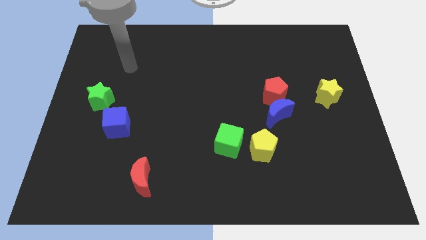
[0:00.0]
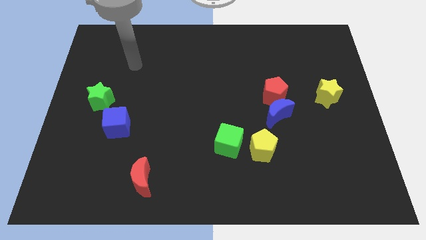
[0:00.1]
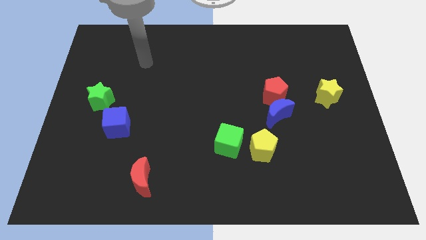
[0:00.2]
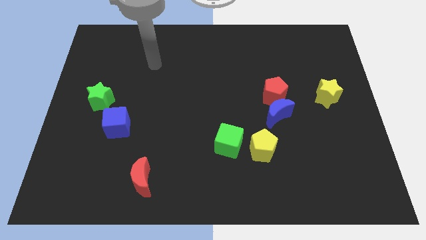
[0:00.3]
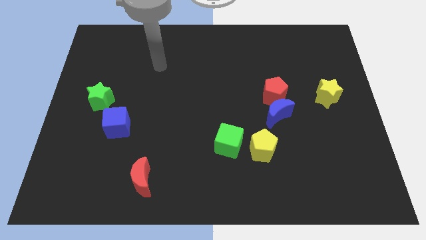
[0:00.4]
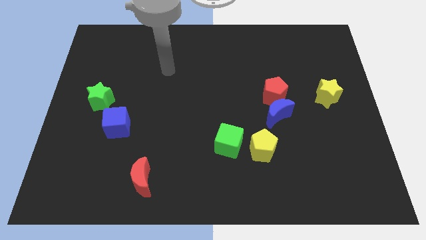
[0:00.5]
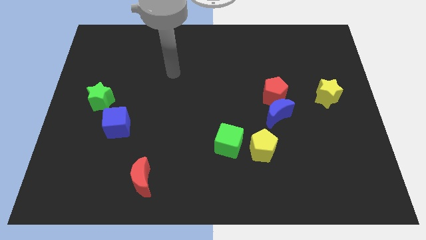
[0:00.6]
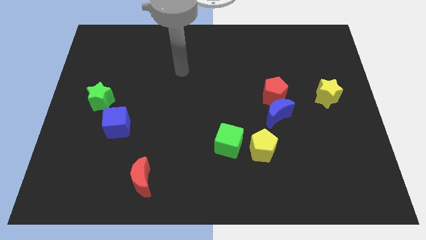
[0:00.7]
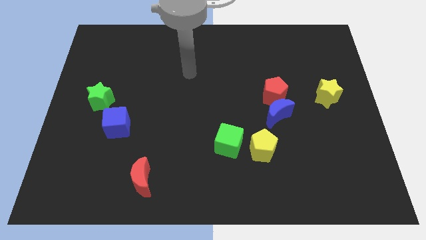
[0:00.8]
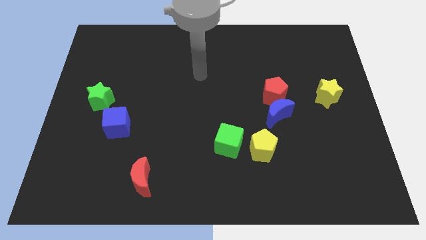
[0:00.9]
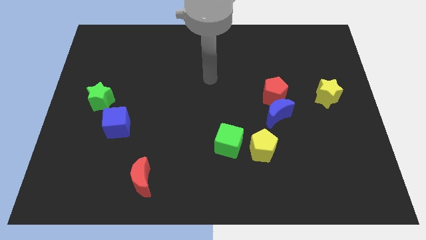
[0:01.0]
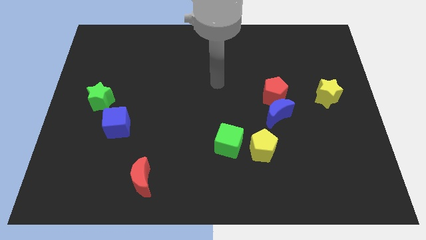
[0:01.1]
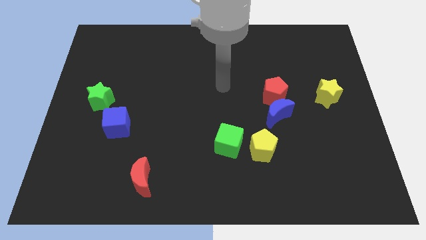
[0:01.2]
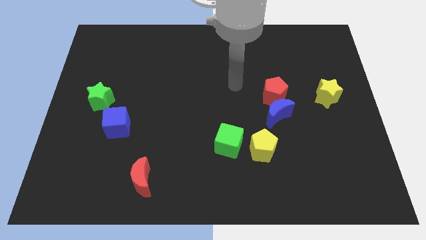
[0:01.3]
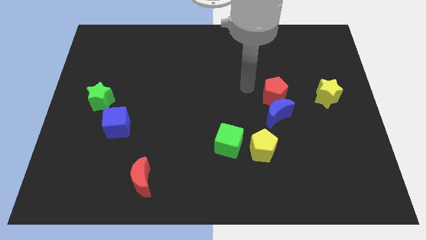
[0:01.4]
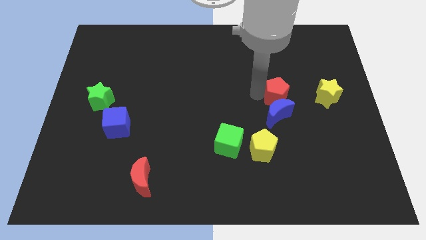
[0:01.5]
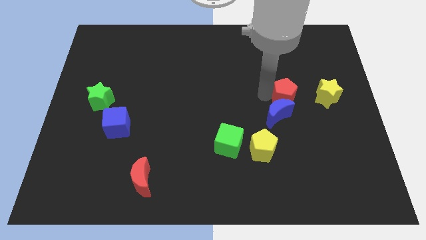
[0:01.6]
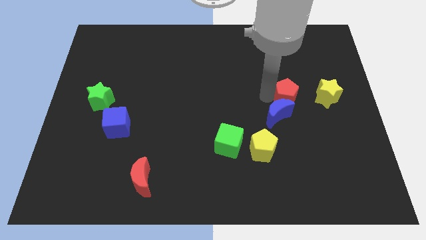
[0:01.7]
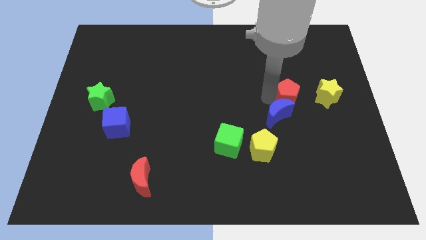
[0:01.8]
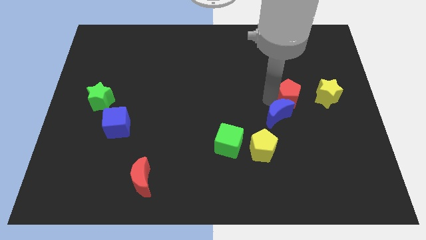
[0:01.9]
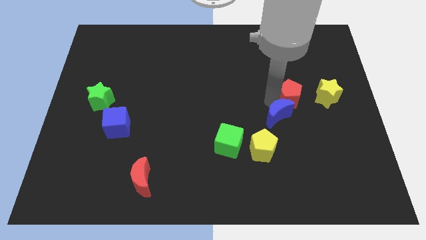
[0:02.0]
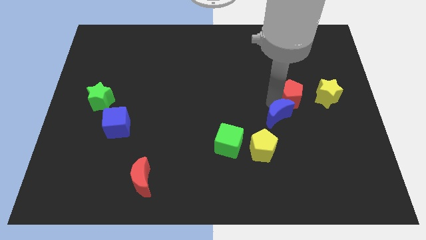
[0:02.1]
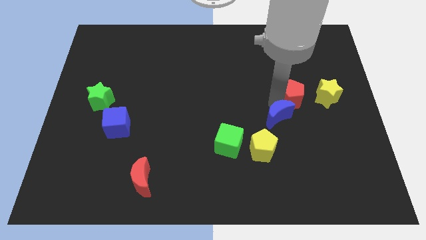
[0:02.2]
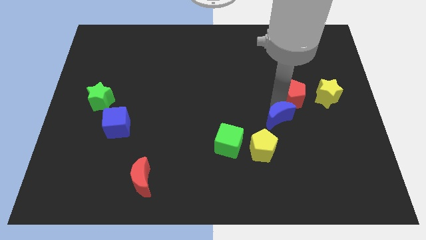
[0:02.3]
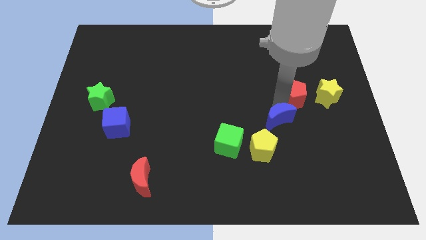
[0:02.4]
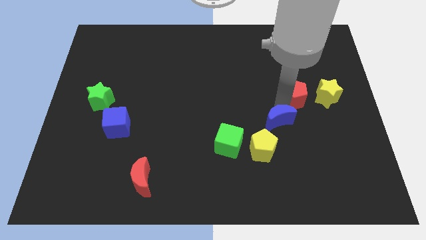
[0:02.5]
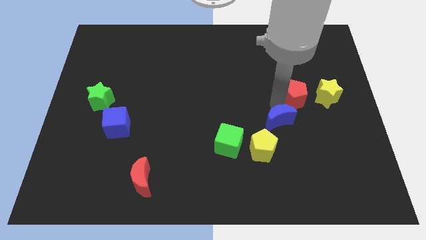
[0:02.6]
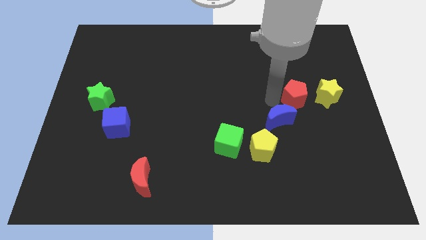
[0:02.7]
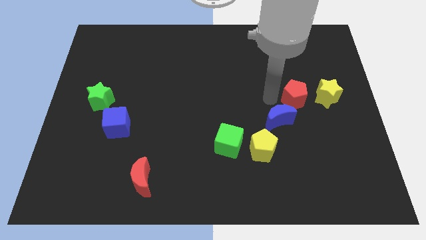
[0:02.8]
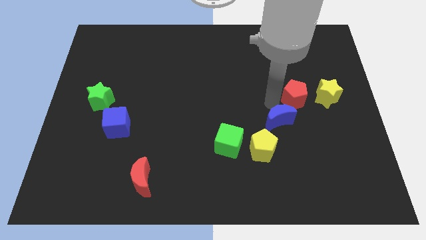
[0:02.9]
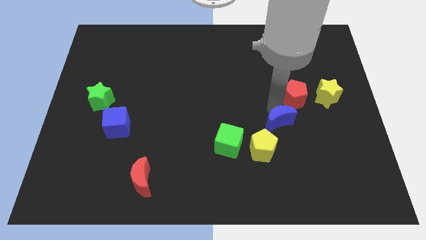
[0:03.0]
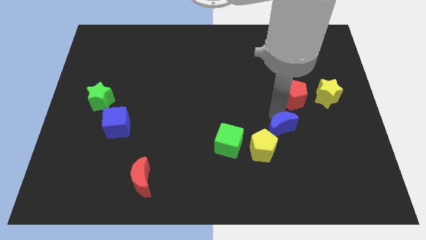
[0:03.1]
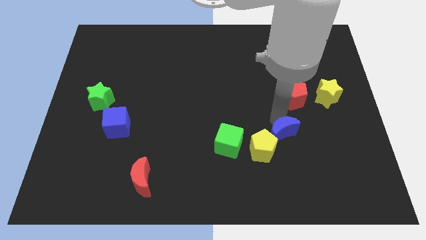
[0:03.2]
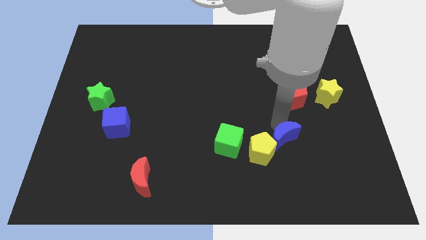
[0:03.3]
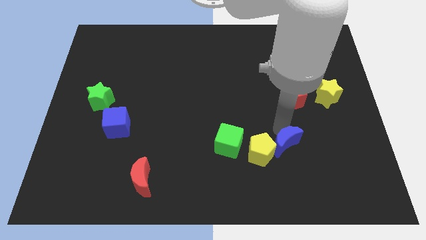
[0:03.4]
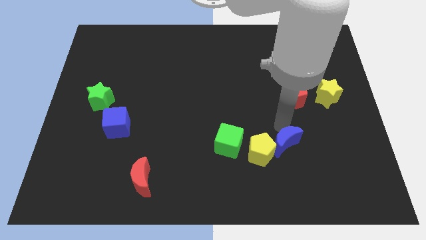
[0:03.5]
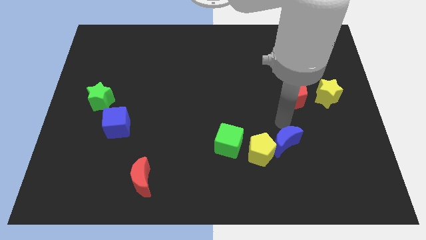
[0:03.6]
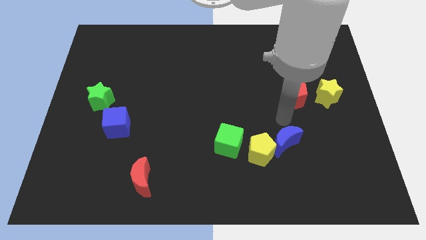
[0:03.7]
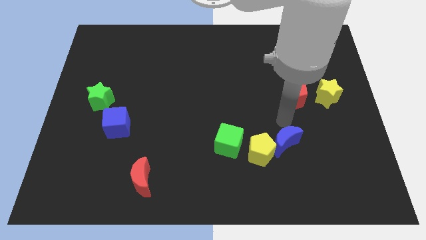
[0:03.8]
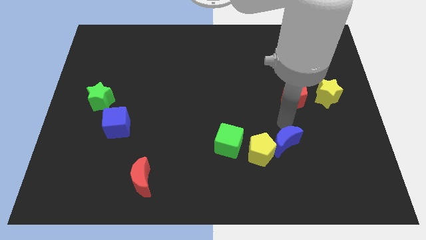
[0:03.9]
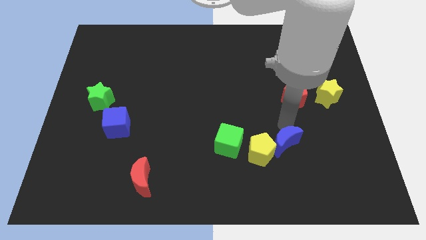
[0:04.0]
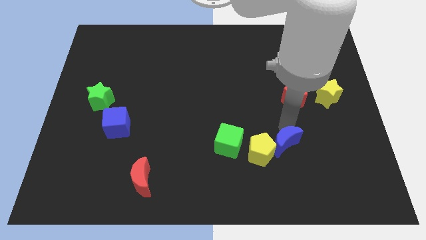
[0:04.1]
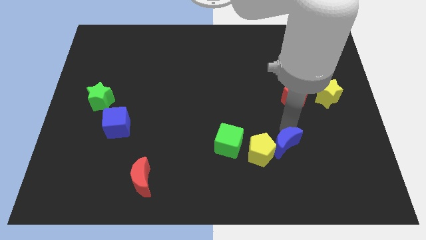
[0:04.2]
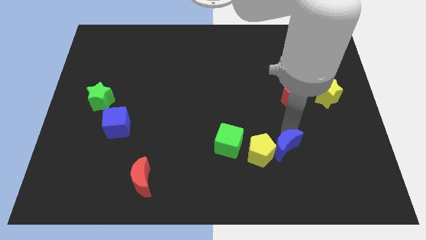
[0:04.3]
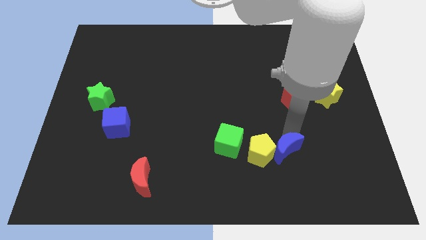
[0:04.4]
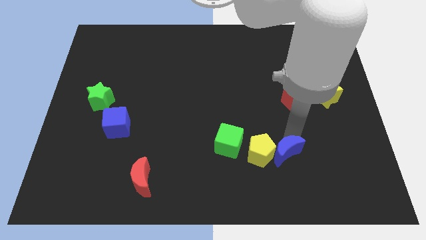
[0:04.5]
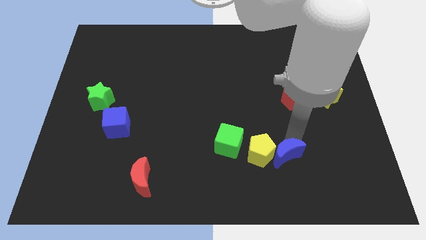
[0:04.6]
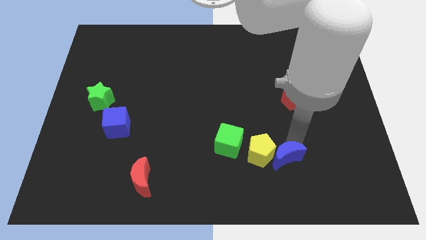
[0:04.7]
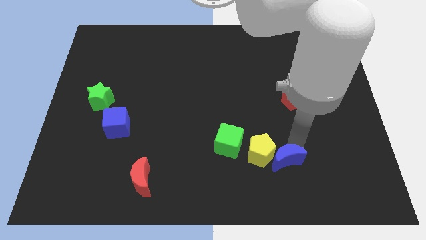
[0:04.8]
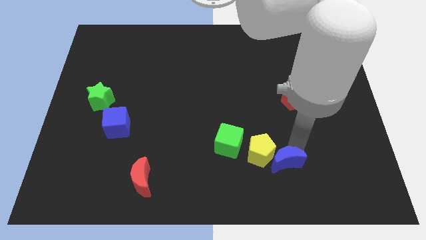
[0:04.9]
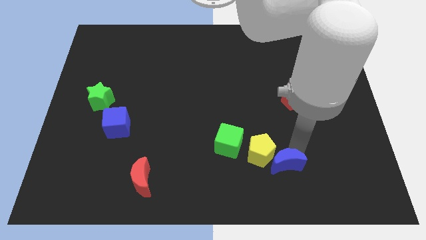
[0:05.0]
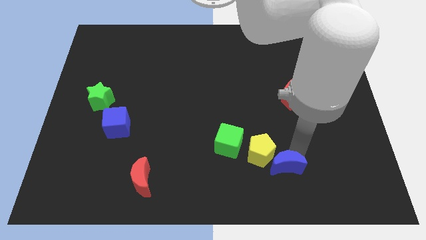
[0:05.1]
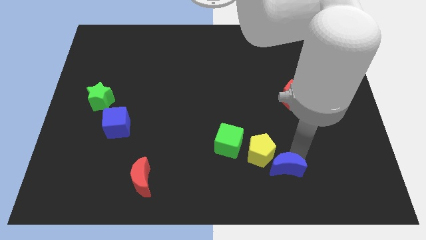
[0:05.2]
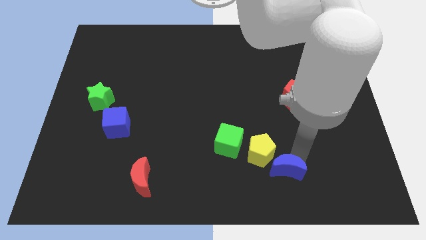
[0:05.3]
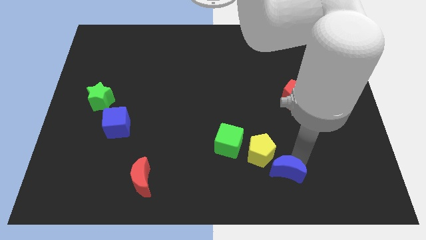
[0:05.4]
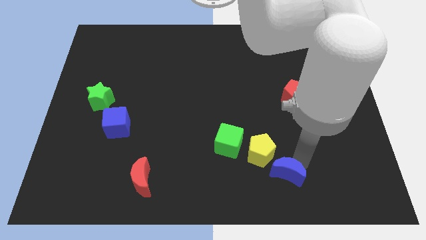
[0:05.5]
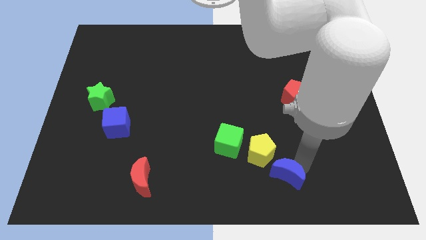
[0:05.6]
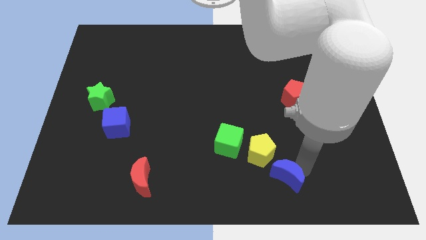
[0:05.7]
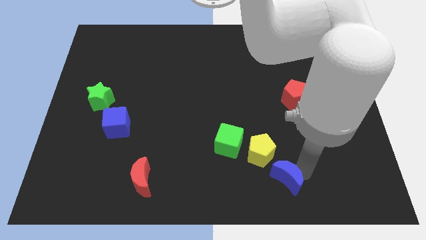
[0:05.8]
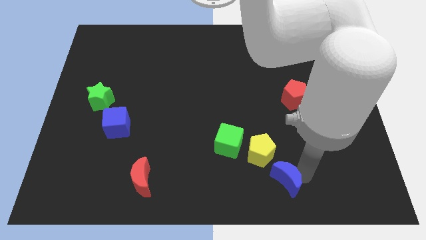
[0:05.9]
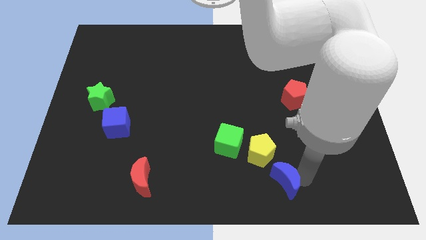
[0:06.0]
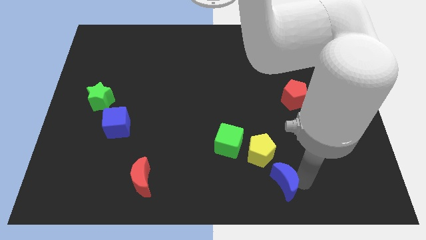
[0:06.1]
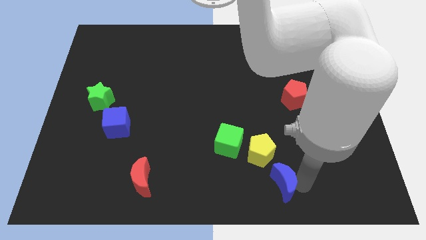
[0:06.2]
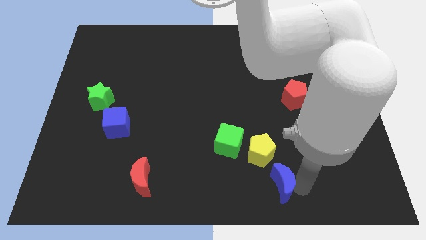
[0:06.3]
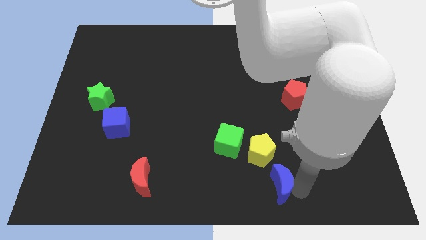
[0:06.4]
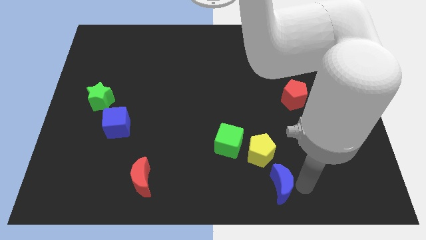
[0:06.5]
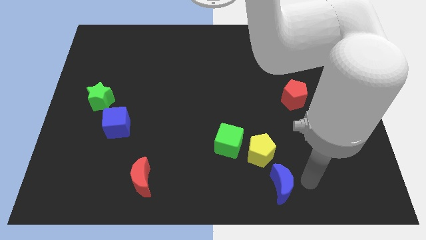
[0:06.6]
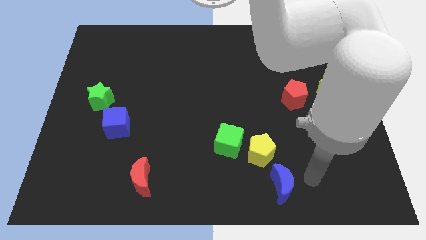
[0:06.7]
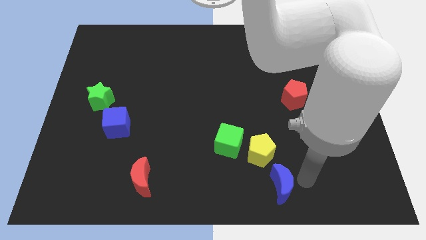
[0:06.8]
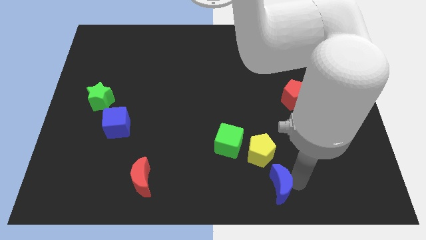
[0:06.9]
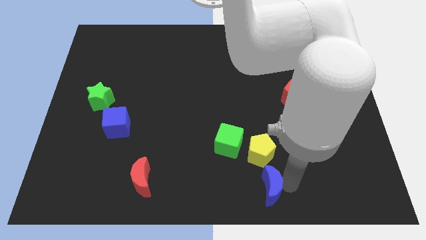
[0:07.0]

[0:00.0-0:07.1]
push the blue moon to the bottom

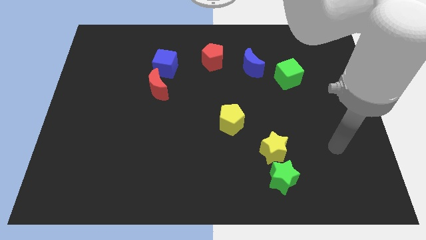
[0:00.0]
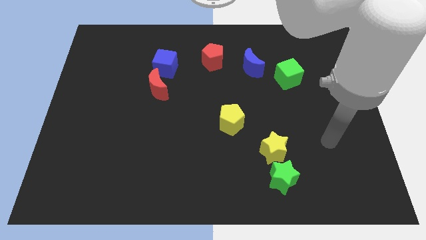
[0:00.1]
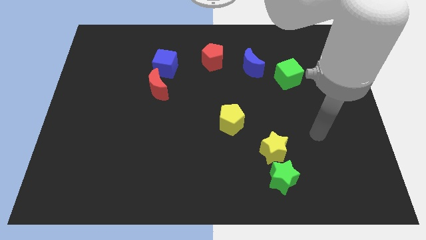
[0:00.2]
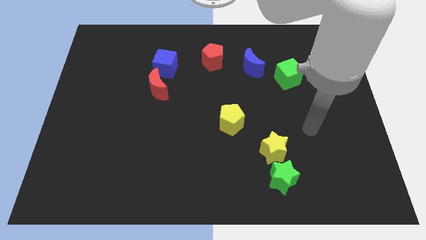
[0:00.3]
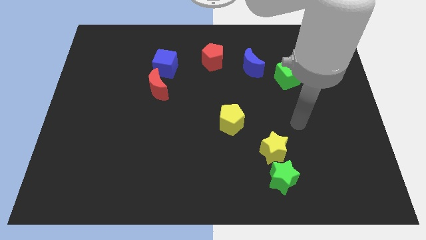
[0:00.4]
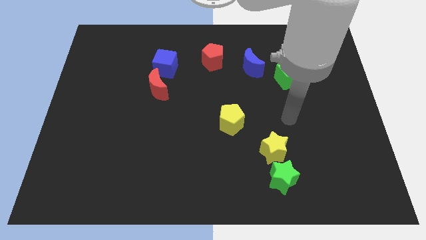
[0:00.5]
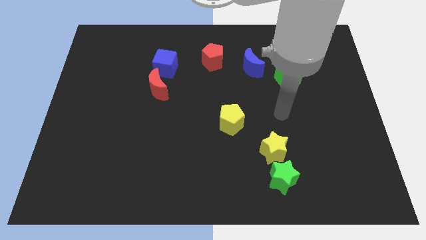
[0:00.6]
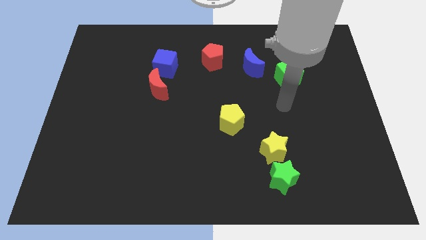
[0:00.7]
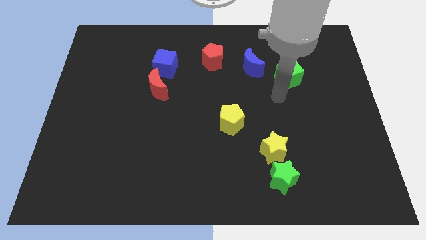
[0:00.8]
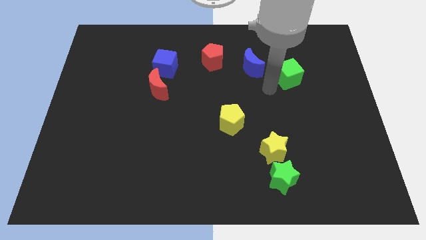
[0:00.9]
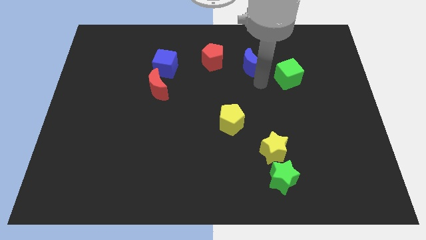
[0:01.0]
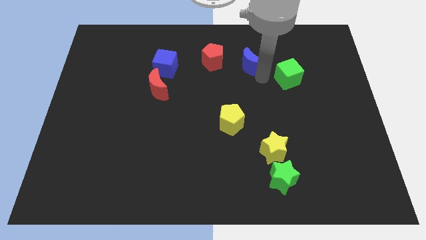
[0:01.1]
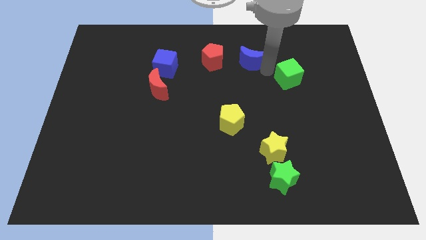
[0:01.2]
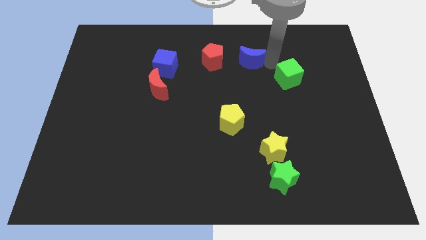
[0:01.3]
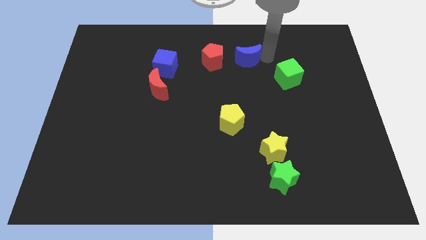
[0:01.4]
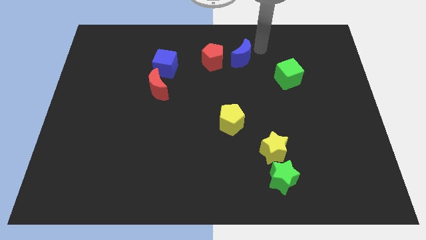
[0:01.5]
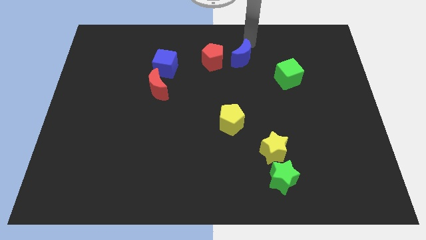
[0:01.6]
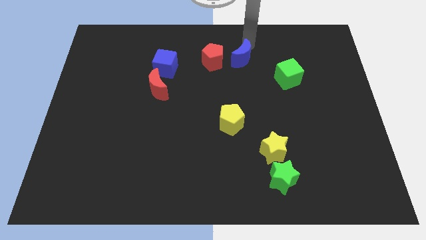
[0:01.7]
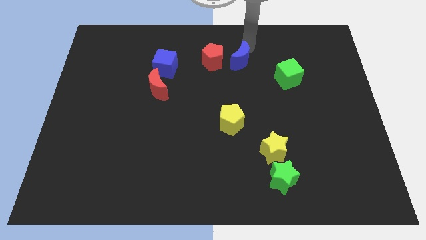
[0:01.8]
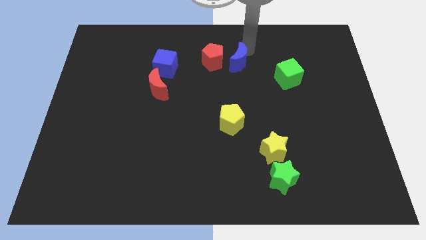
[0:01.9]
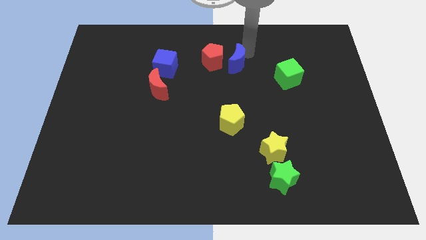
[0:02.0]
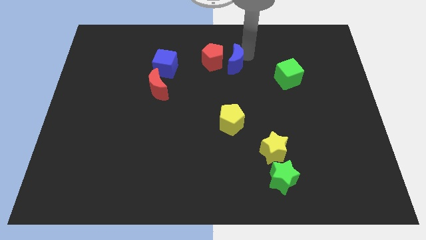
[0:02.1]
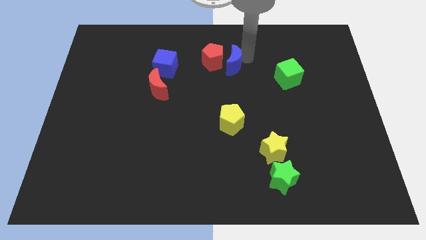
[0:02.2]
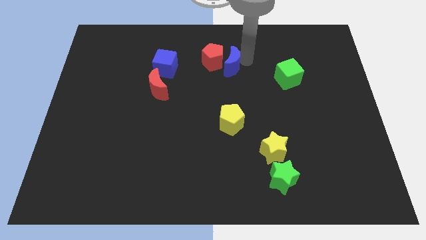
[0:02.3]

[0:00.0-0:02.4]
push the blue moon to the center
